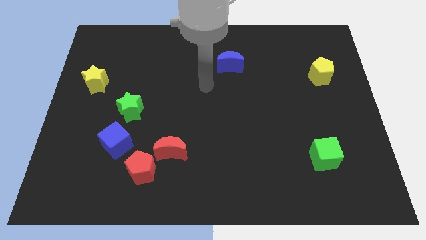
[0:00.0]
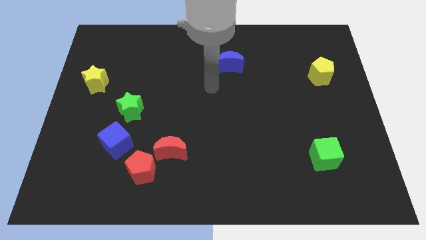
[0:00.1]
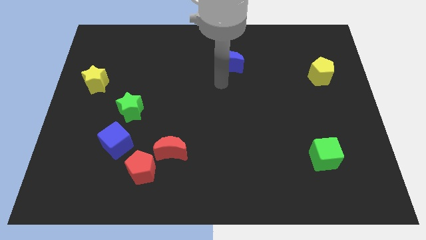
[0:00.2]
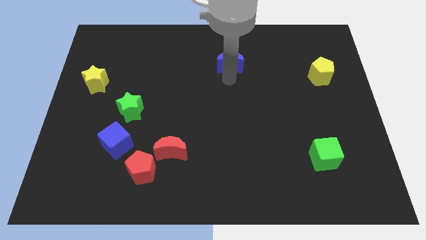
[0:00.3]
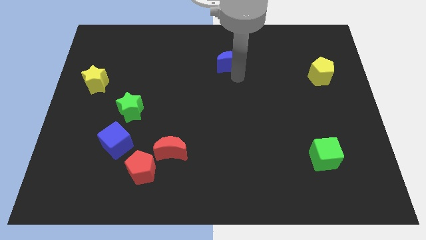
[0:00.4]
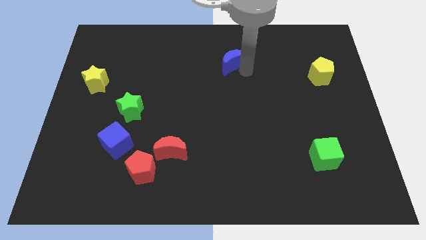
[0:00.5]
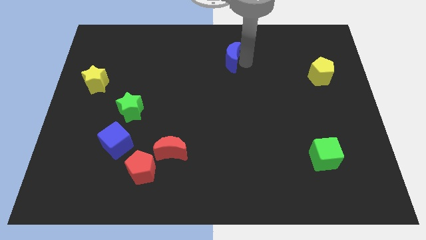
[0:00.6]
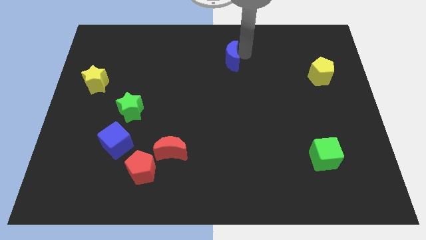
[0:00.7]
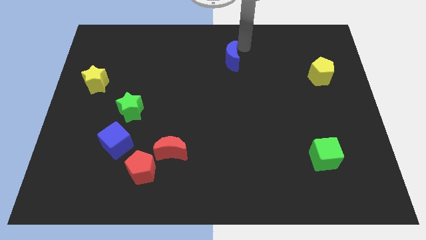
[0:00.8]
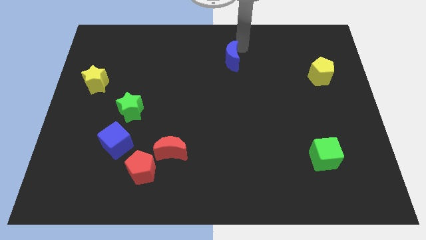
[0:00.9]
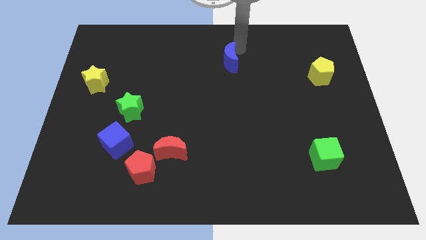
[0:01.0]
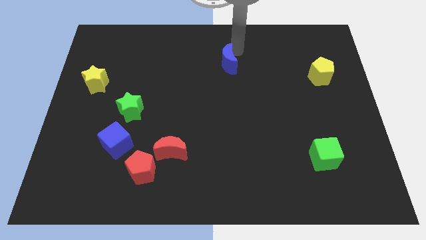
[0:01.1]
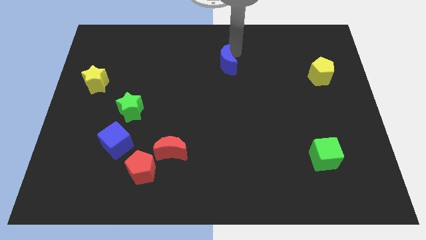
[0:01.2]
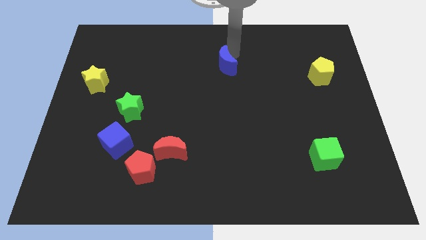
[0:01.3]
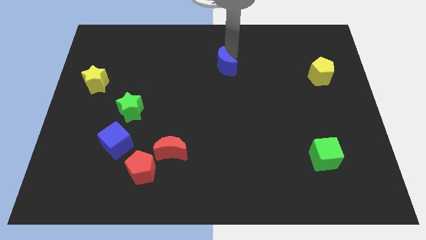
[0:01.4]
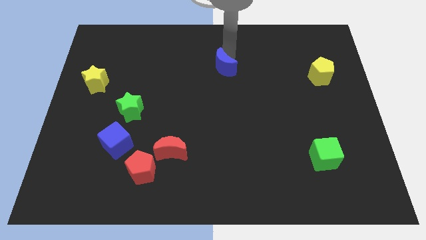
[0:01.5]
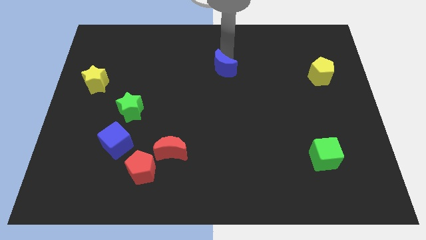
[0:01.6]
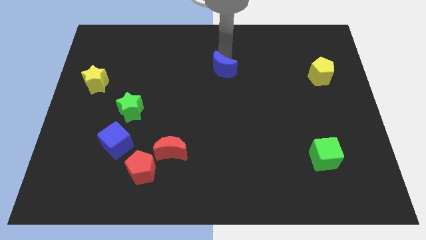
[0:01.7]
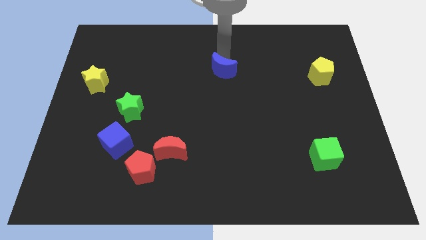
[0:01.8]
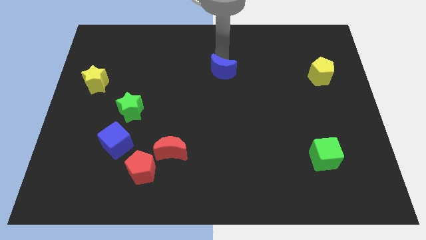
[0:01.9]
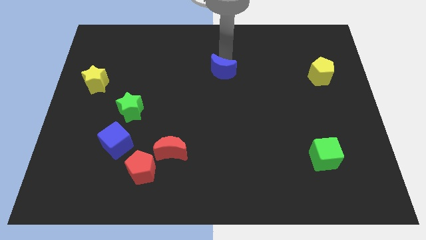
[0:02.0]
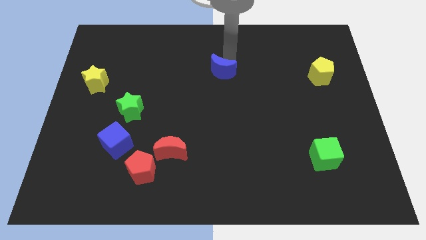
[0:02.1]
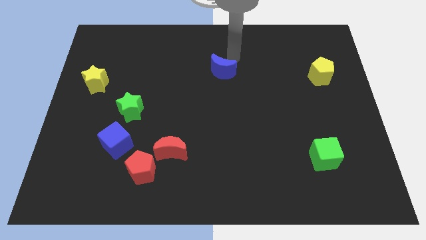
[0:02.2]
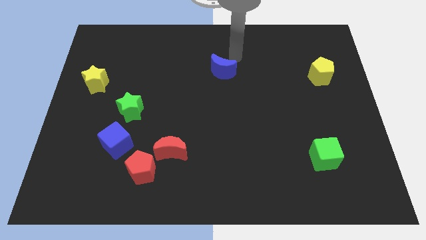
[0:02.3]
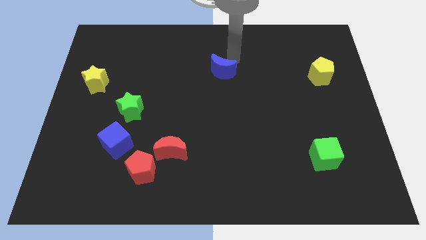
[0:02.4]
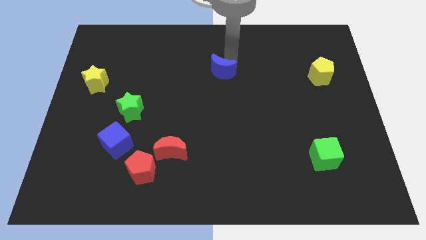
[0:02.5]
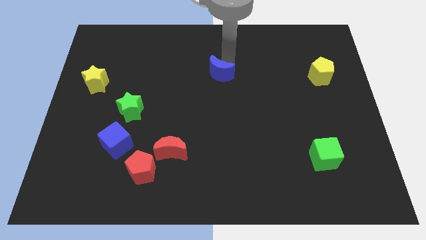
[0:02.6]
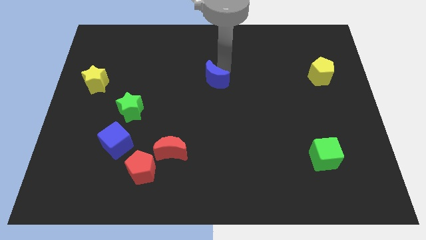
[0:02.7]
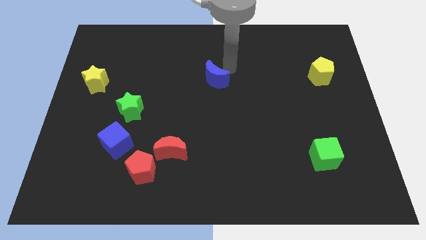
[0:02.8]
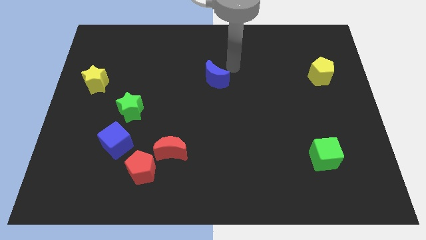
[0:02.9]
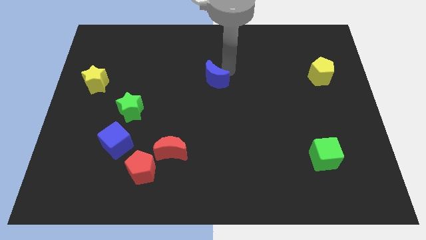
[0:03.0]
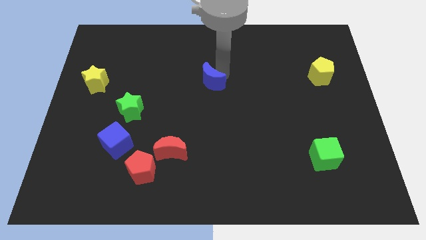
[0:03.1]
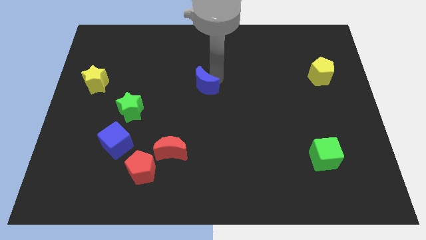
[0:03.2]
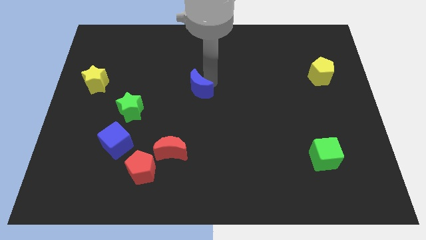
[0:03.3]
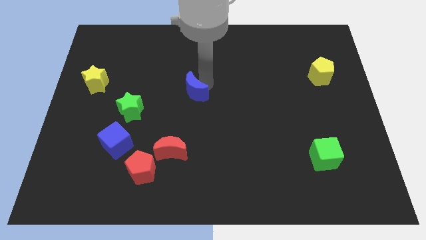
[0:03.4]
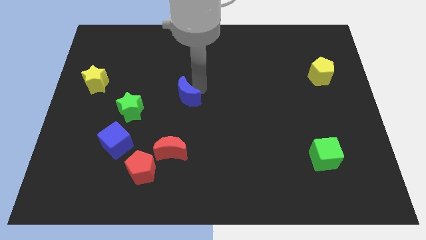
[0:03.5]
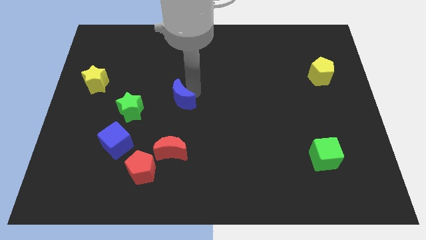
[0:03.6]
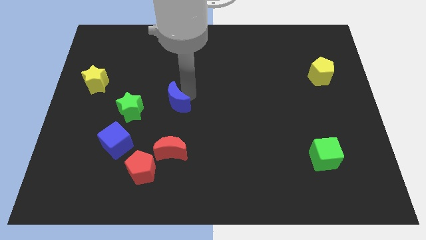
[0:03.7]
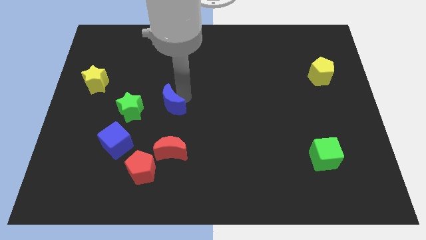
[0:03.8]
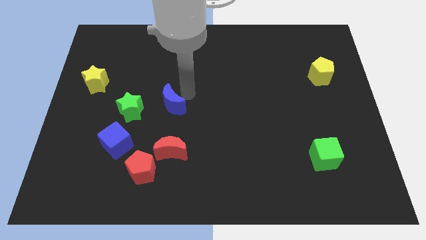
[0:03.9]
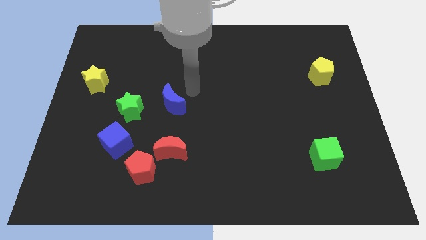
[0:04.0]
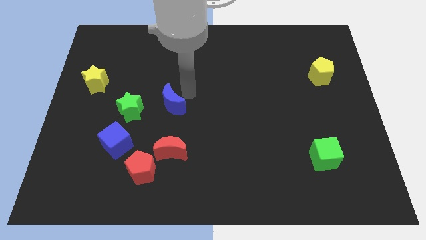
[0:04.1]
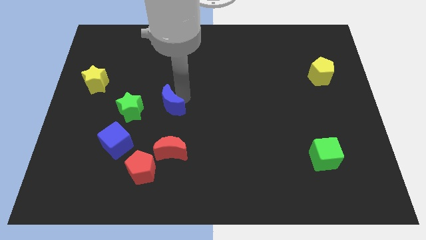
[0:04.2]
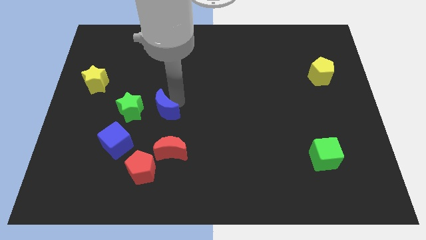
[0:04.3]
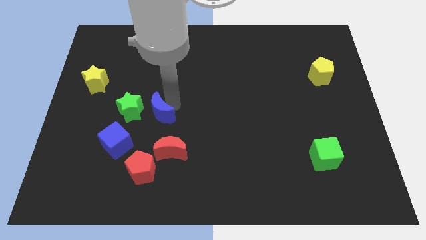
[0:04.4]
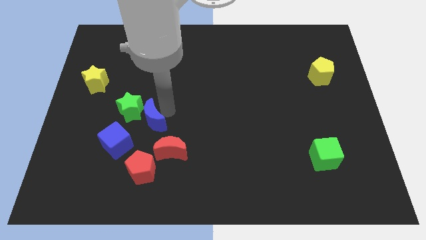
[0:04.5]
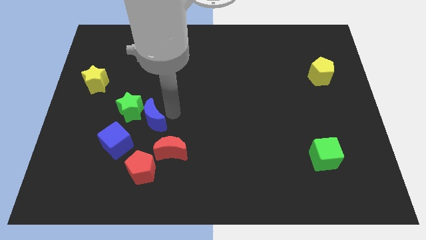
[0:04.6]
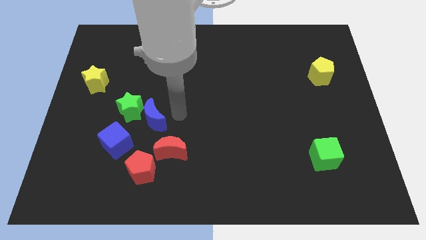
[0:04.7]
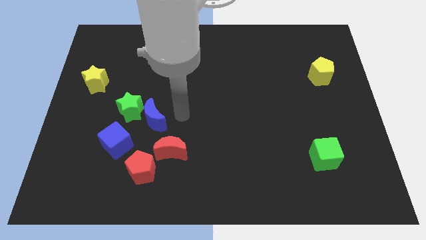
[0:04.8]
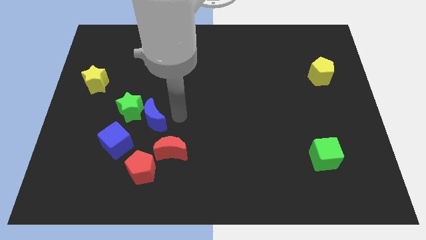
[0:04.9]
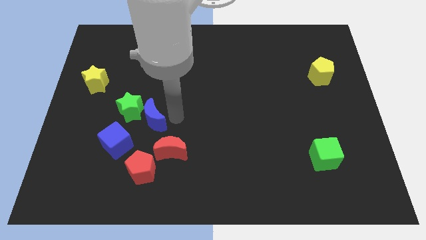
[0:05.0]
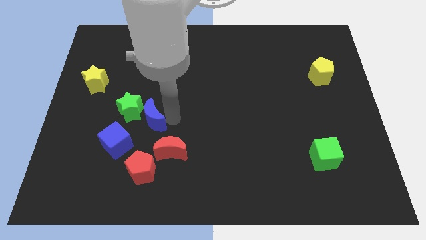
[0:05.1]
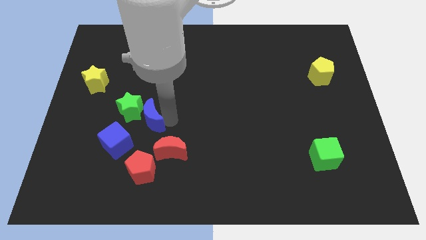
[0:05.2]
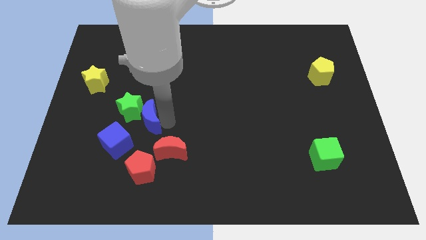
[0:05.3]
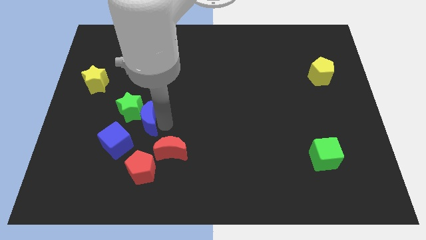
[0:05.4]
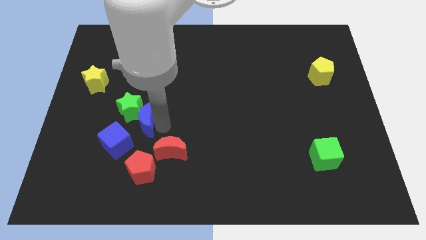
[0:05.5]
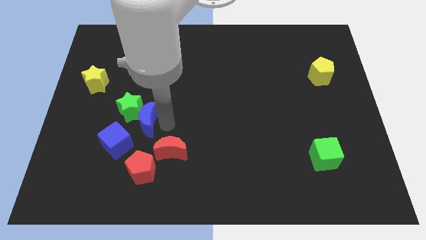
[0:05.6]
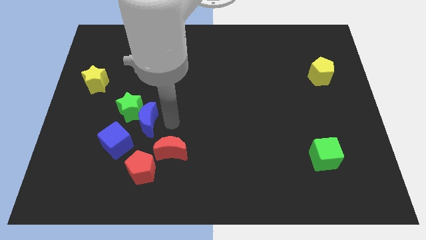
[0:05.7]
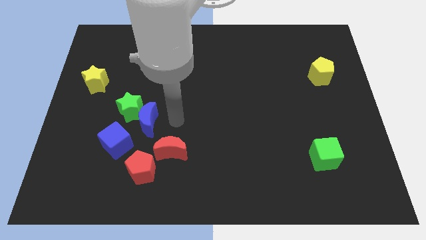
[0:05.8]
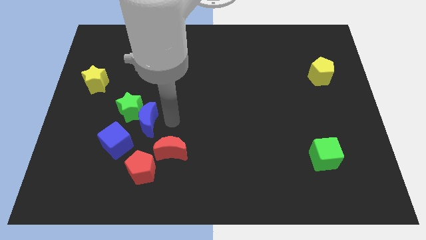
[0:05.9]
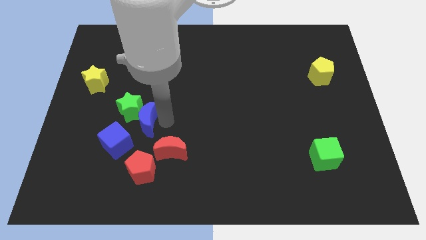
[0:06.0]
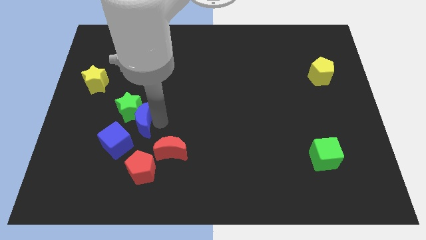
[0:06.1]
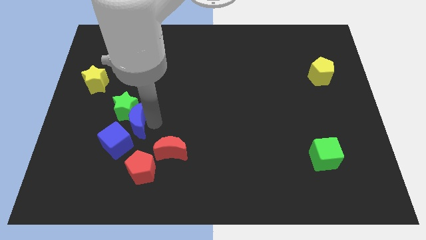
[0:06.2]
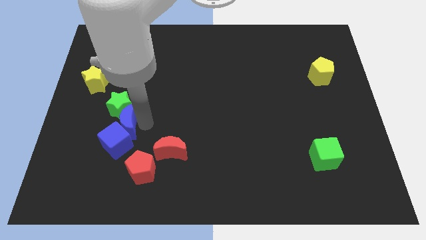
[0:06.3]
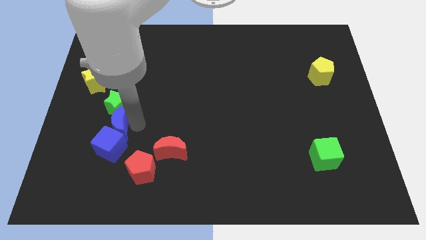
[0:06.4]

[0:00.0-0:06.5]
move the blue moon to the bottom left side of the green star

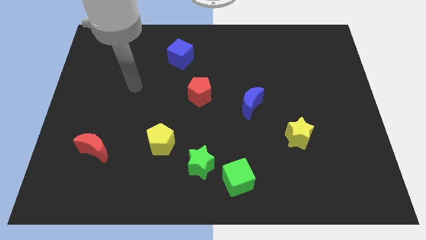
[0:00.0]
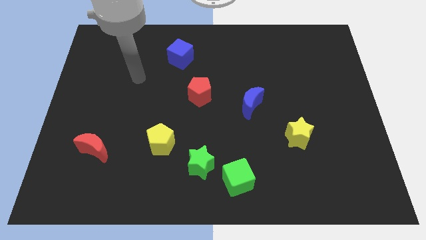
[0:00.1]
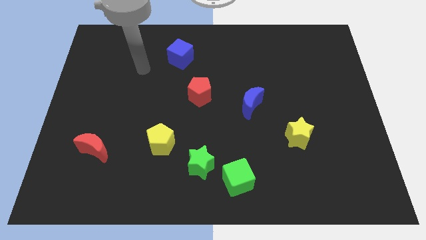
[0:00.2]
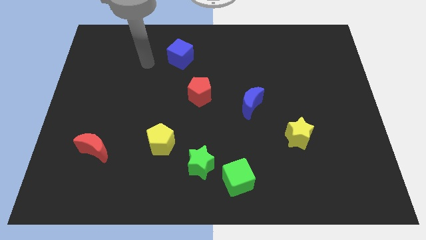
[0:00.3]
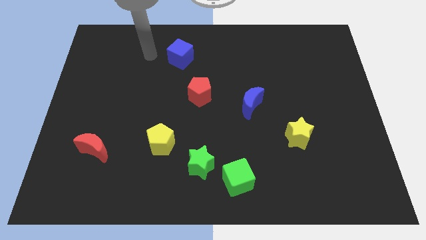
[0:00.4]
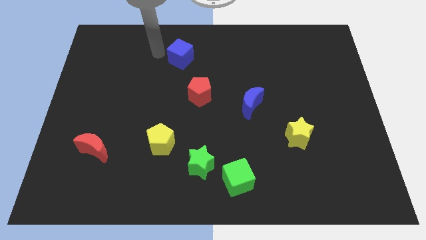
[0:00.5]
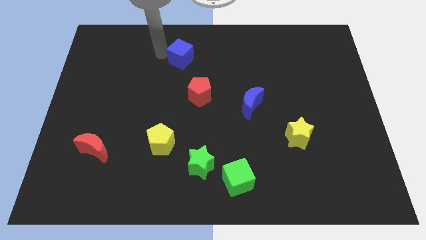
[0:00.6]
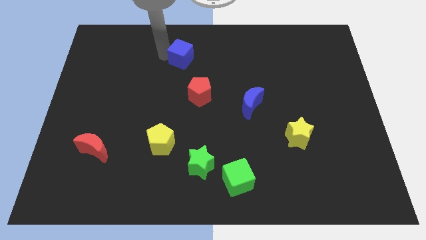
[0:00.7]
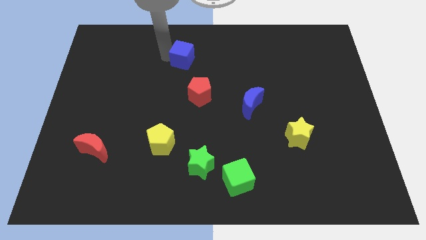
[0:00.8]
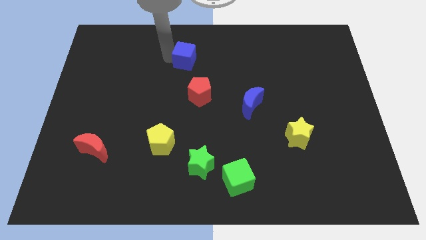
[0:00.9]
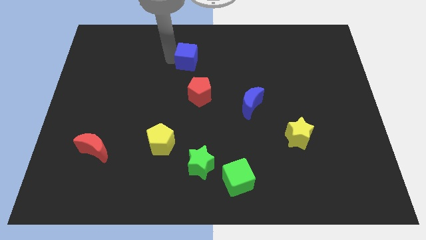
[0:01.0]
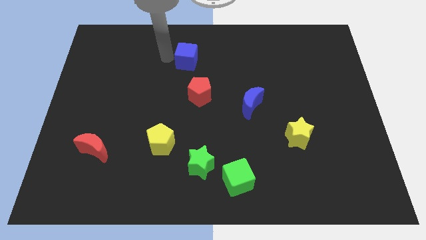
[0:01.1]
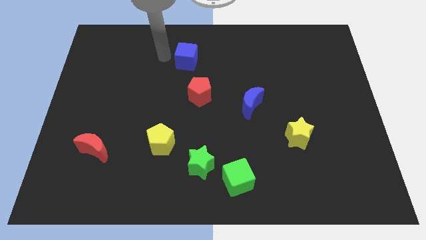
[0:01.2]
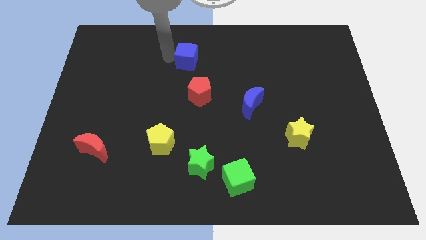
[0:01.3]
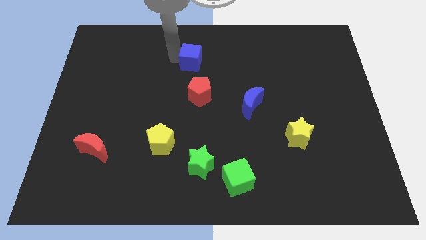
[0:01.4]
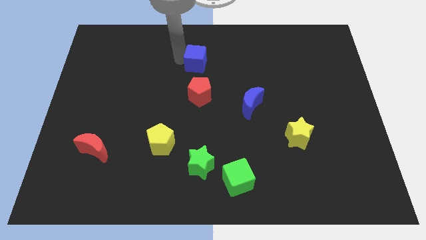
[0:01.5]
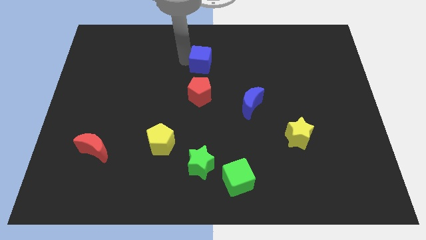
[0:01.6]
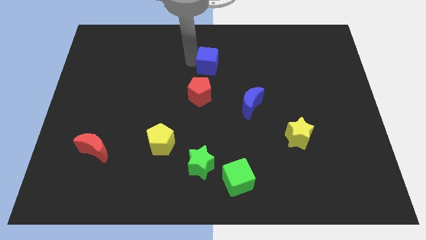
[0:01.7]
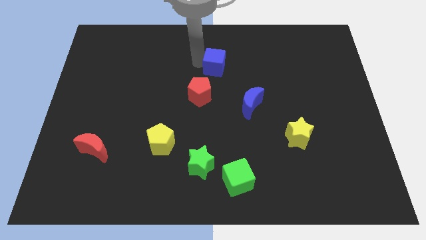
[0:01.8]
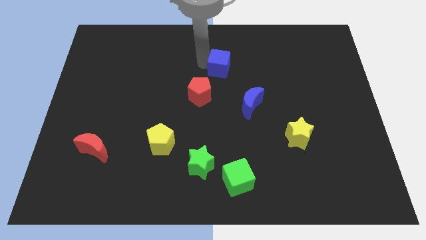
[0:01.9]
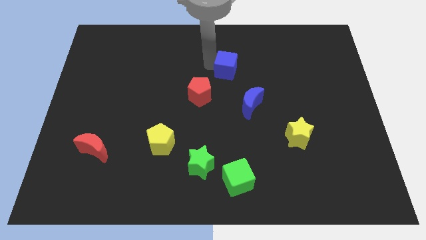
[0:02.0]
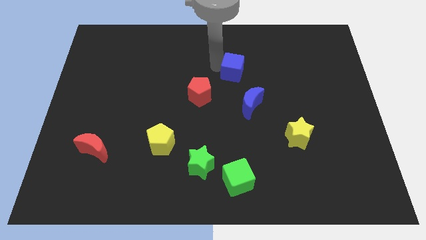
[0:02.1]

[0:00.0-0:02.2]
slide the blue cube to the top of the blue moon
